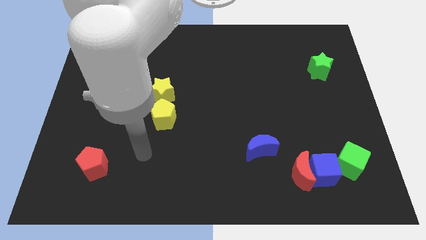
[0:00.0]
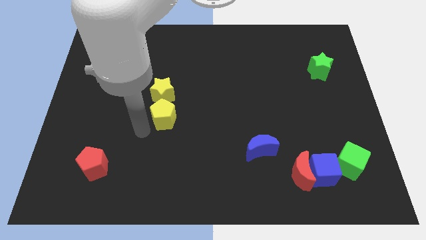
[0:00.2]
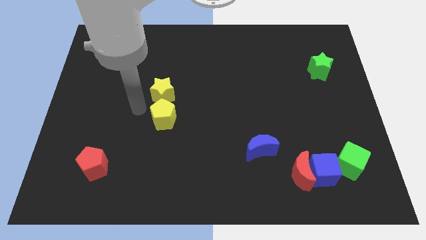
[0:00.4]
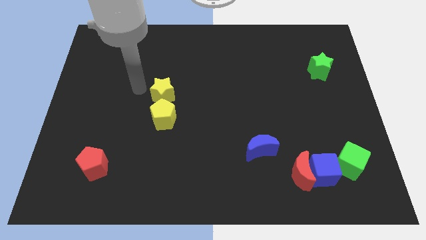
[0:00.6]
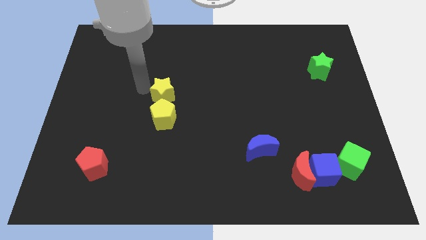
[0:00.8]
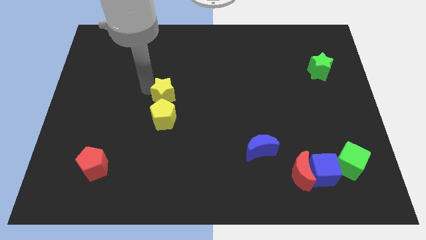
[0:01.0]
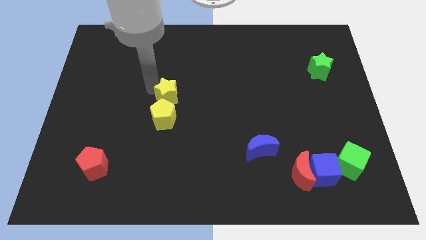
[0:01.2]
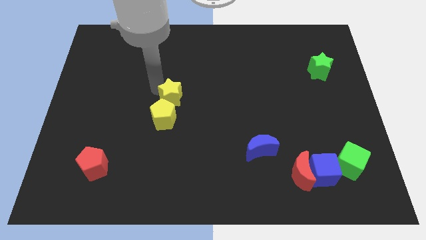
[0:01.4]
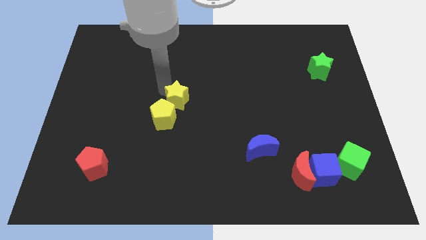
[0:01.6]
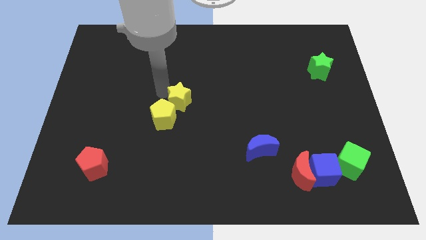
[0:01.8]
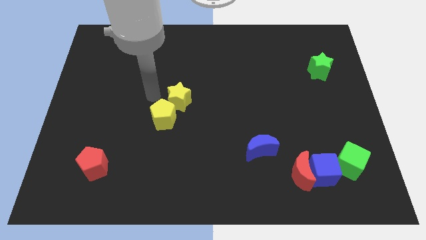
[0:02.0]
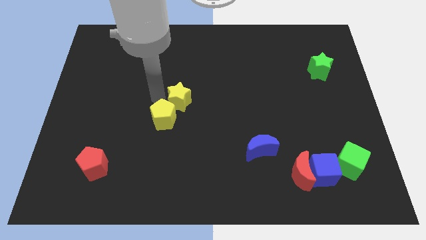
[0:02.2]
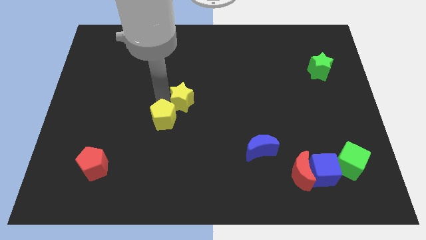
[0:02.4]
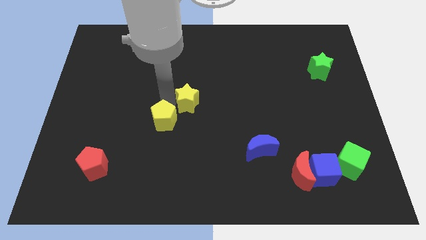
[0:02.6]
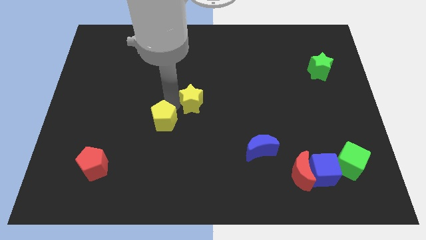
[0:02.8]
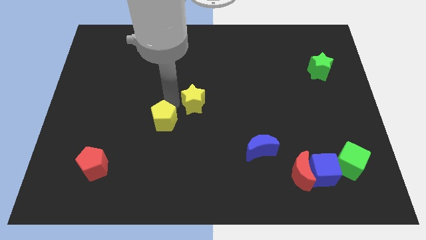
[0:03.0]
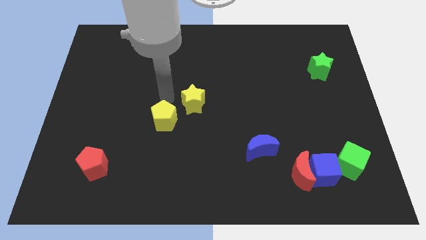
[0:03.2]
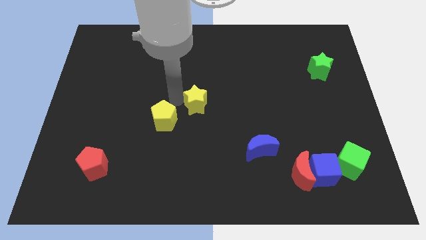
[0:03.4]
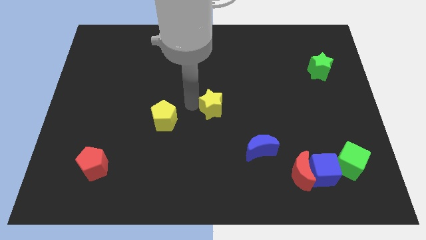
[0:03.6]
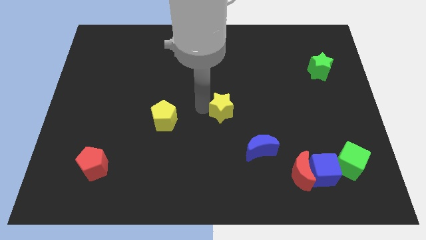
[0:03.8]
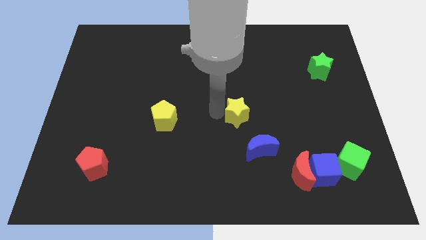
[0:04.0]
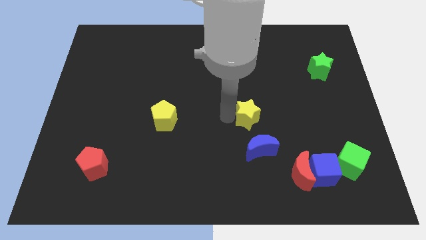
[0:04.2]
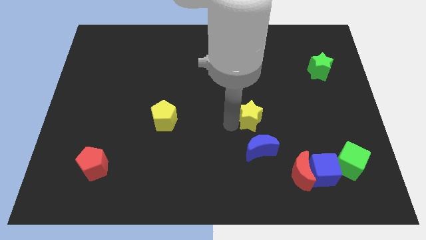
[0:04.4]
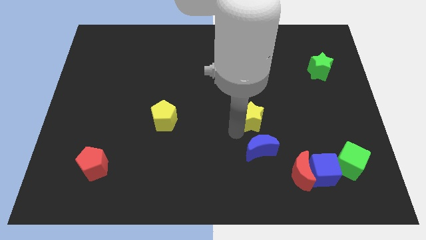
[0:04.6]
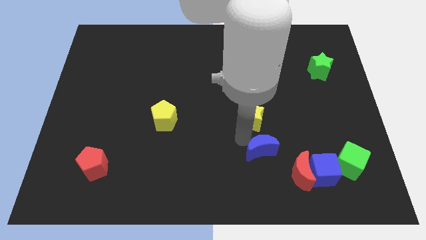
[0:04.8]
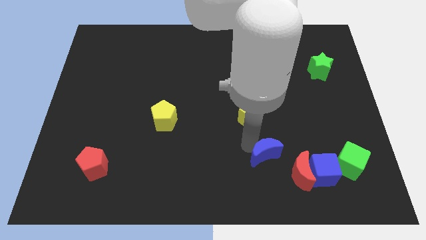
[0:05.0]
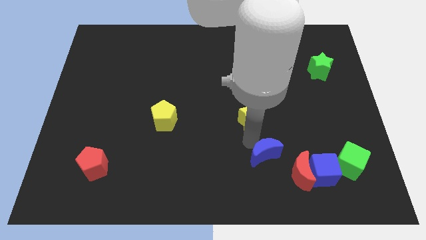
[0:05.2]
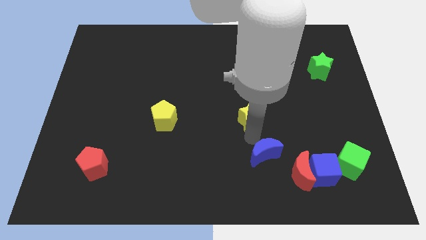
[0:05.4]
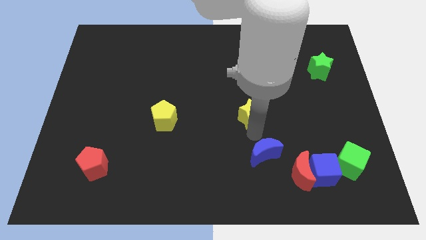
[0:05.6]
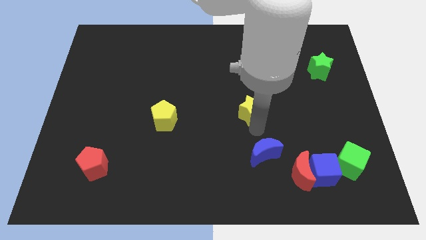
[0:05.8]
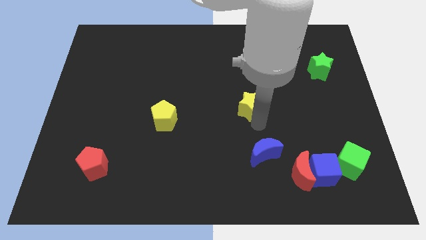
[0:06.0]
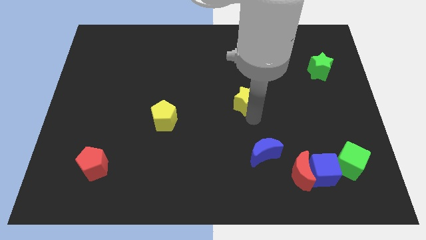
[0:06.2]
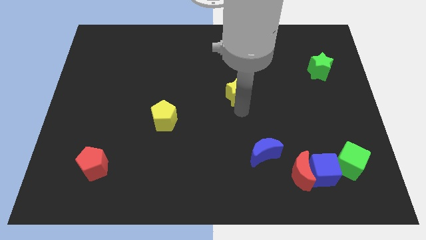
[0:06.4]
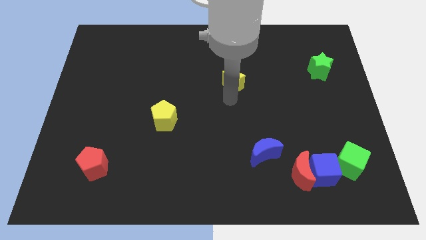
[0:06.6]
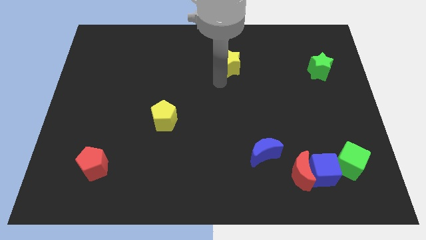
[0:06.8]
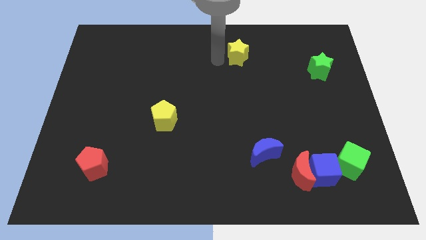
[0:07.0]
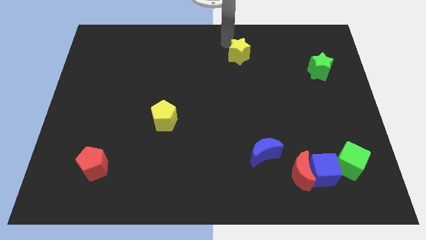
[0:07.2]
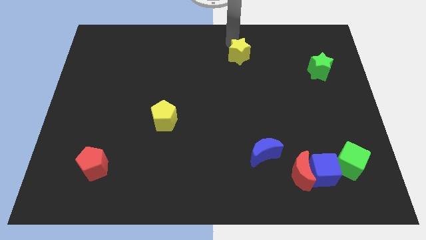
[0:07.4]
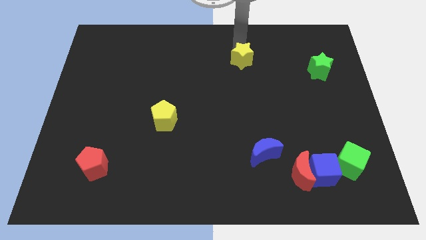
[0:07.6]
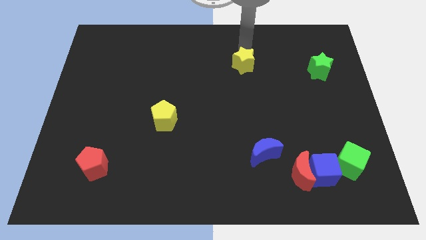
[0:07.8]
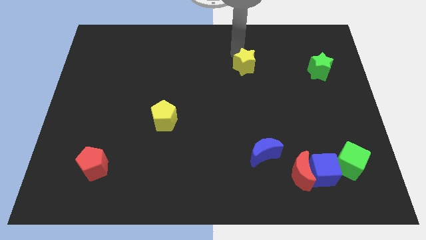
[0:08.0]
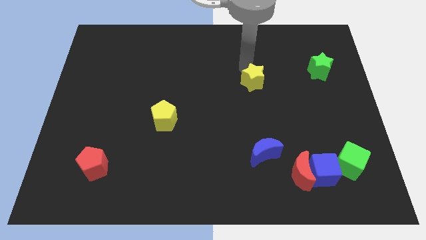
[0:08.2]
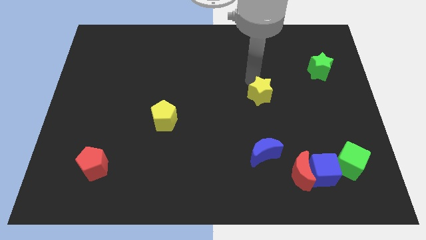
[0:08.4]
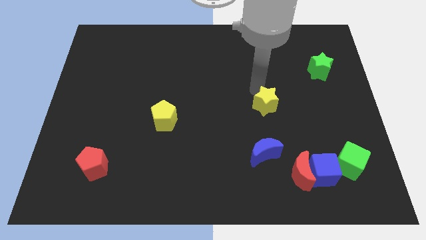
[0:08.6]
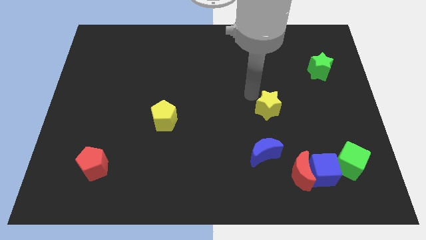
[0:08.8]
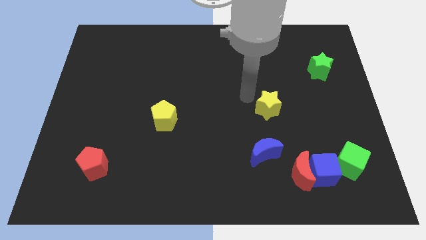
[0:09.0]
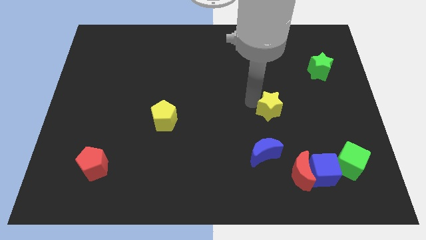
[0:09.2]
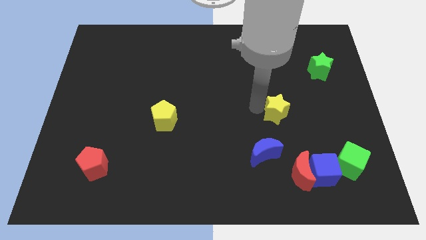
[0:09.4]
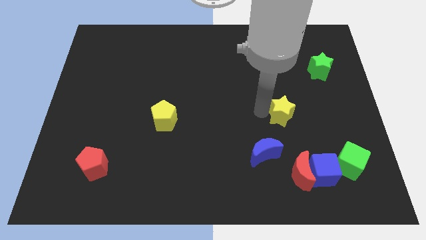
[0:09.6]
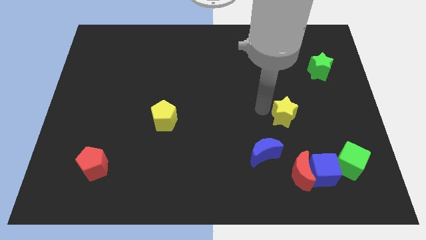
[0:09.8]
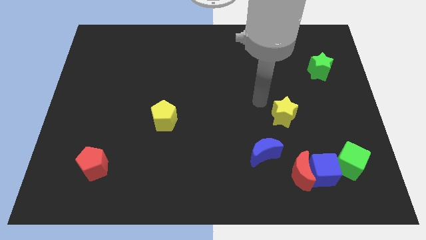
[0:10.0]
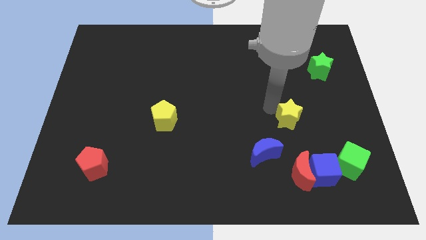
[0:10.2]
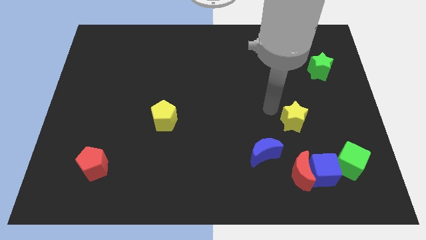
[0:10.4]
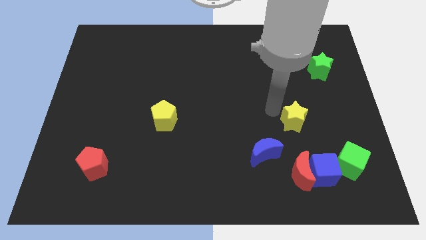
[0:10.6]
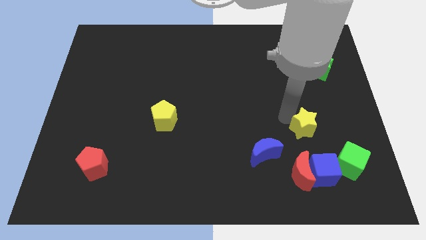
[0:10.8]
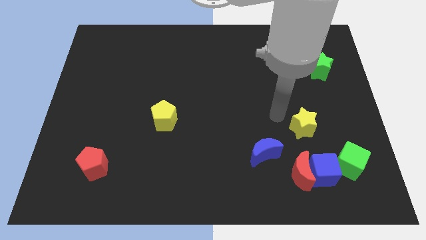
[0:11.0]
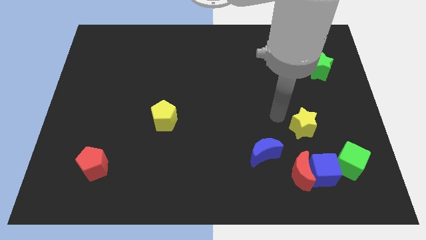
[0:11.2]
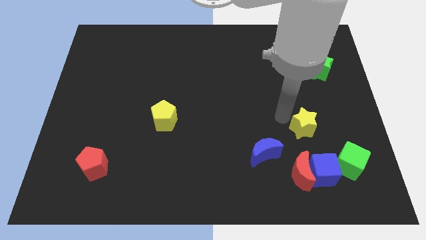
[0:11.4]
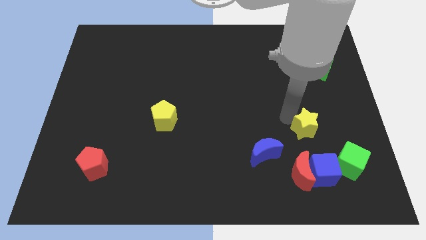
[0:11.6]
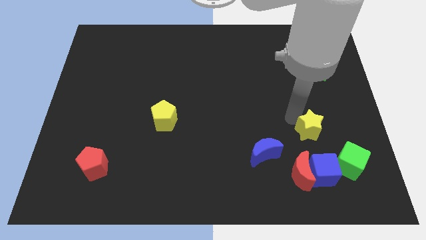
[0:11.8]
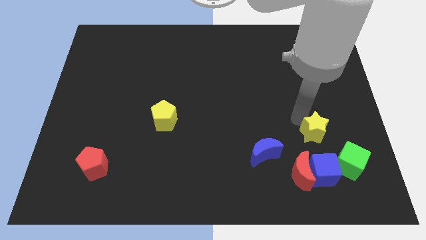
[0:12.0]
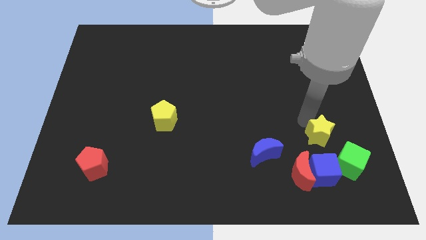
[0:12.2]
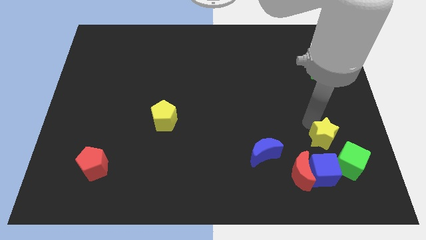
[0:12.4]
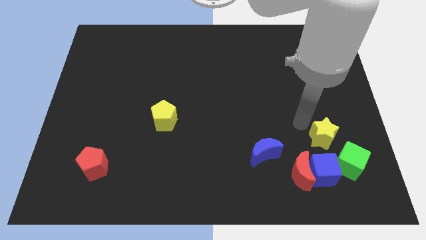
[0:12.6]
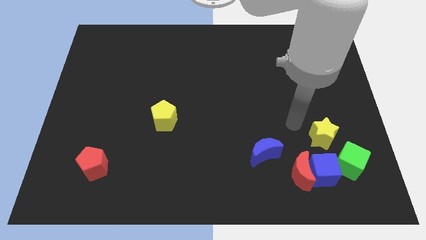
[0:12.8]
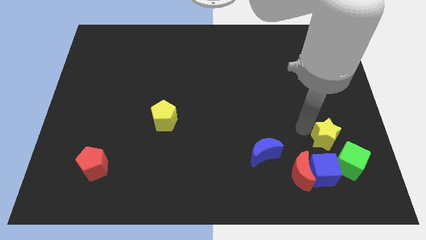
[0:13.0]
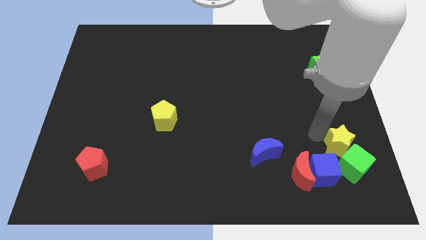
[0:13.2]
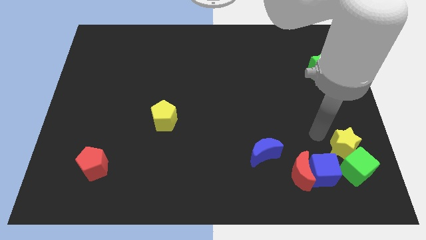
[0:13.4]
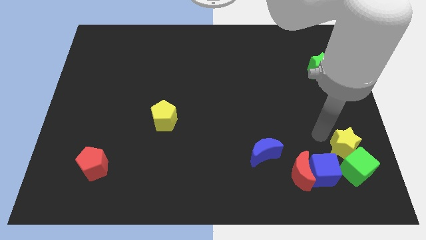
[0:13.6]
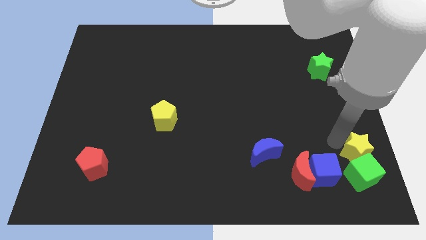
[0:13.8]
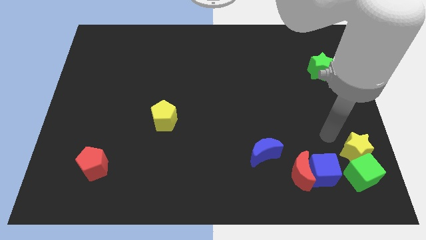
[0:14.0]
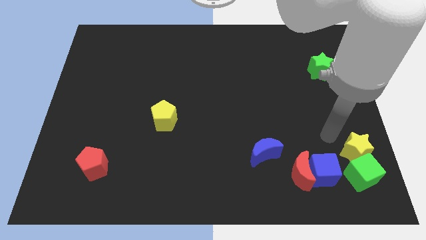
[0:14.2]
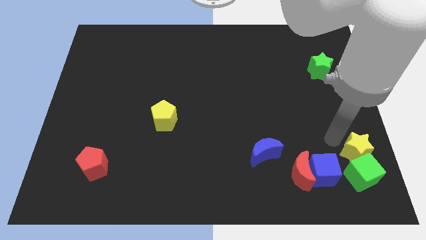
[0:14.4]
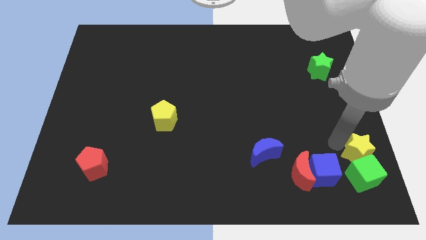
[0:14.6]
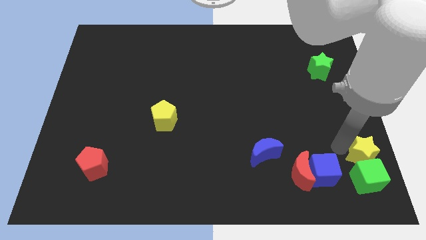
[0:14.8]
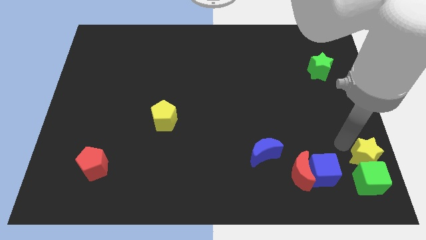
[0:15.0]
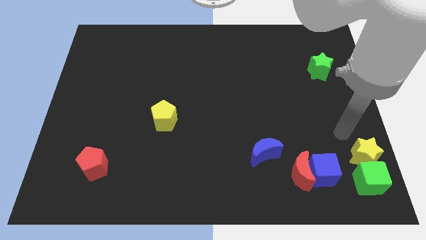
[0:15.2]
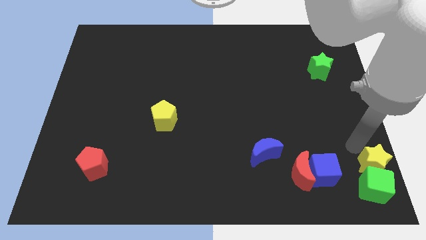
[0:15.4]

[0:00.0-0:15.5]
push the yellow star to the bottom right of the board
